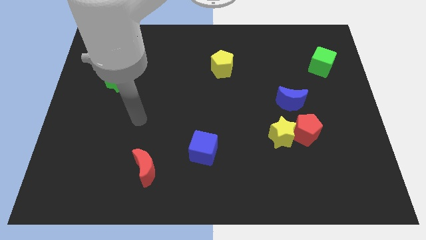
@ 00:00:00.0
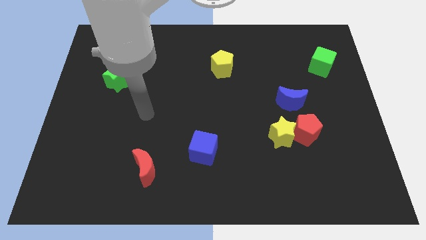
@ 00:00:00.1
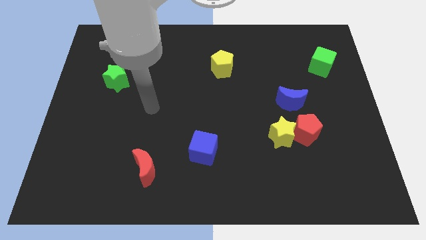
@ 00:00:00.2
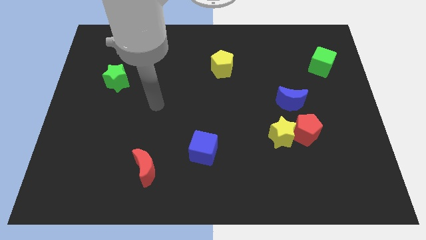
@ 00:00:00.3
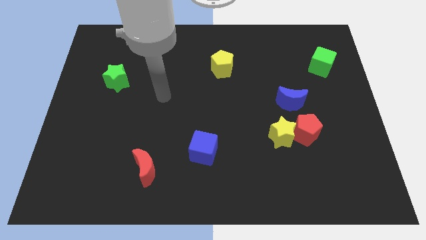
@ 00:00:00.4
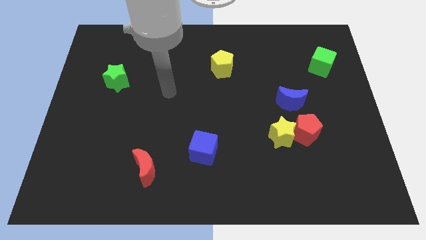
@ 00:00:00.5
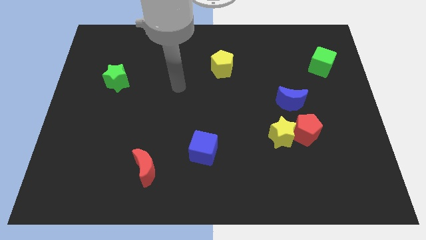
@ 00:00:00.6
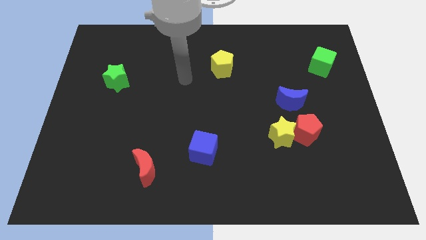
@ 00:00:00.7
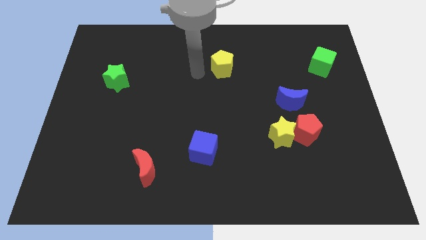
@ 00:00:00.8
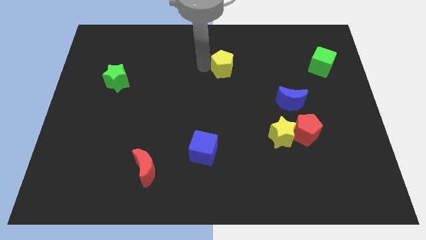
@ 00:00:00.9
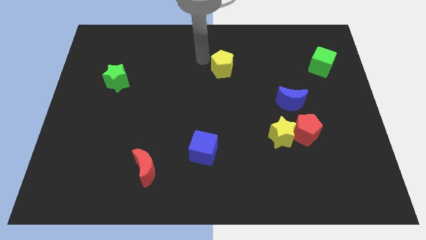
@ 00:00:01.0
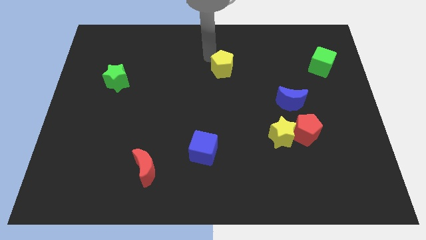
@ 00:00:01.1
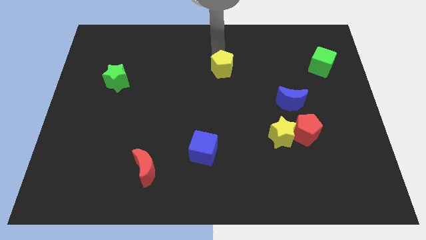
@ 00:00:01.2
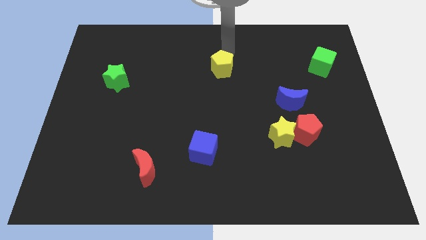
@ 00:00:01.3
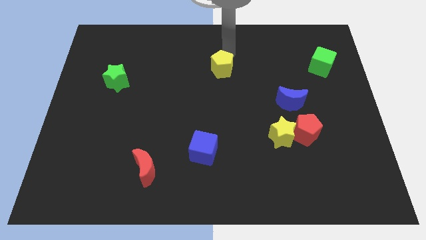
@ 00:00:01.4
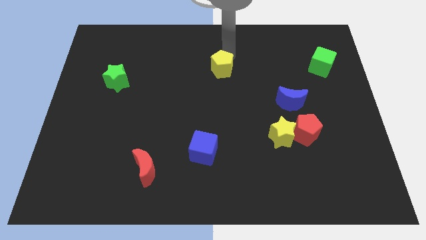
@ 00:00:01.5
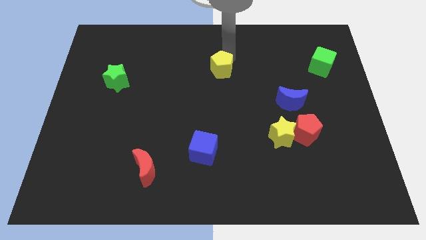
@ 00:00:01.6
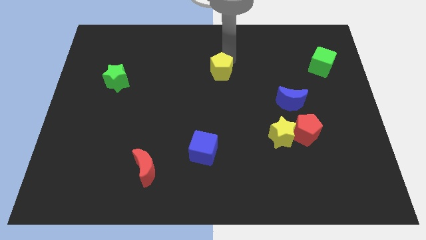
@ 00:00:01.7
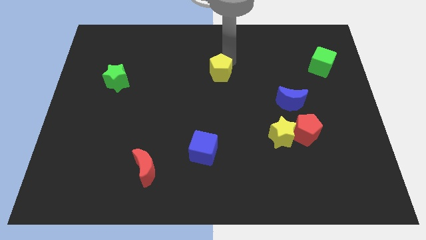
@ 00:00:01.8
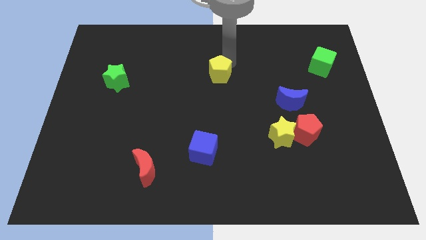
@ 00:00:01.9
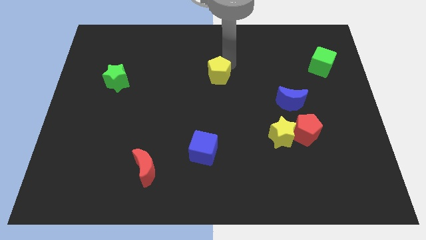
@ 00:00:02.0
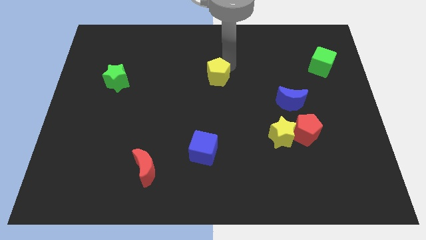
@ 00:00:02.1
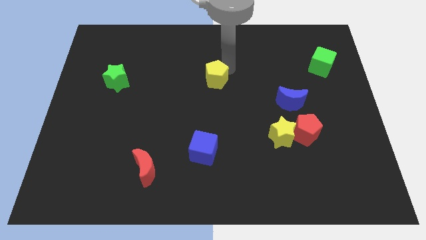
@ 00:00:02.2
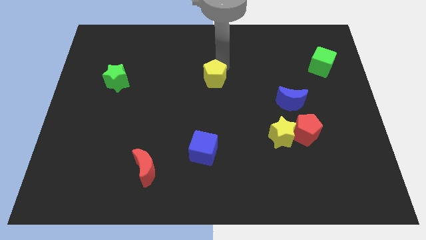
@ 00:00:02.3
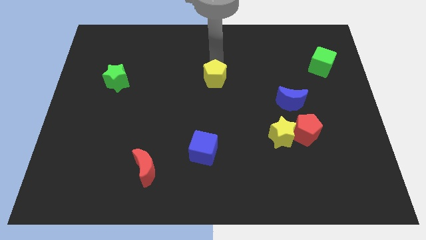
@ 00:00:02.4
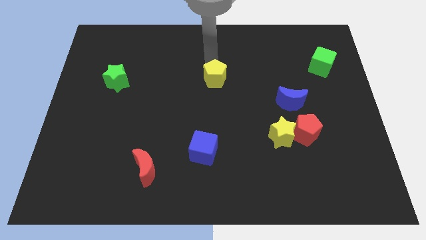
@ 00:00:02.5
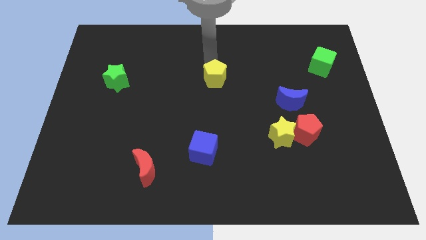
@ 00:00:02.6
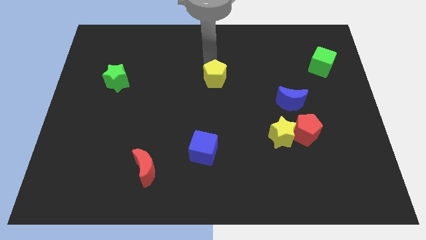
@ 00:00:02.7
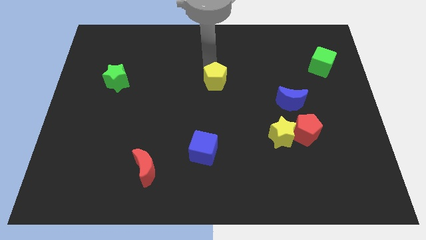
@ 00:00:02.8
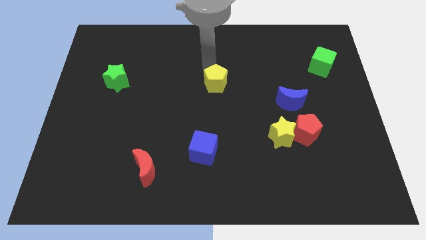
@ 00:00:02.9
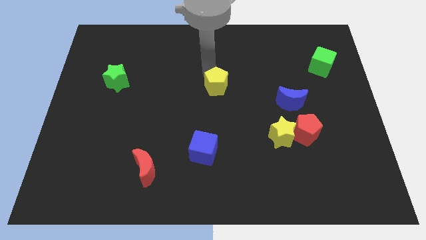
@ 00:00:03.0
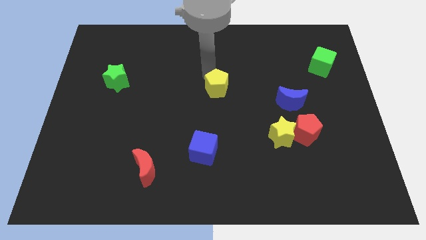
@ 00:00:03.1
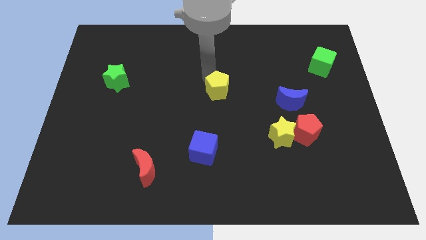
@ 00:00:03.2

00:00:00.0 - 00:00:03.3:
move the yellow pentagon downwards a little

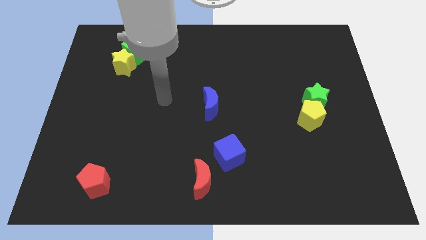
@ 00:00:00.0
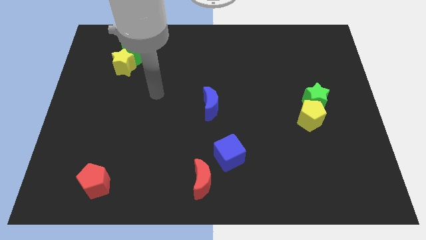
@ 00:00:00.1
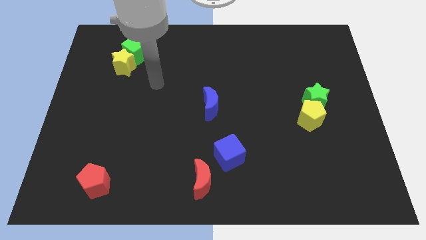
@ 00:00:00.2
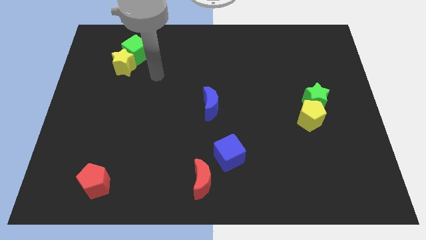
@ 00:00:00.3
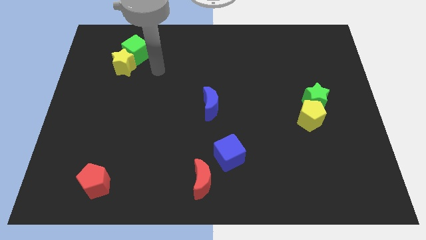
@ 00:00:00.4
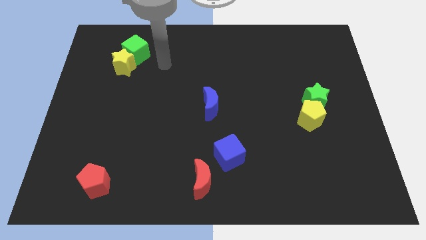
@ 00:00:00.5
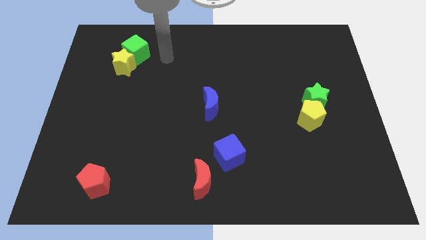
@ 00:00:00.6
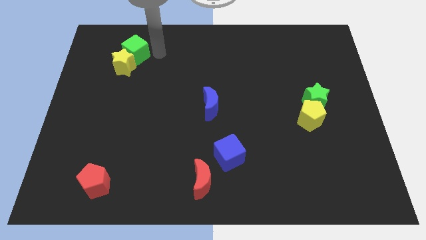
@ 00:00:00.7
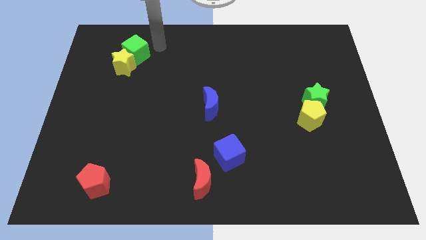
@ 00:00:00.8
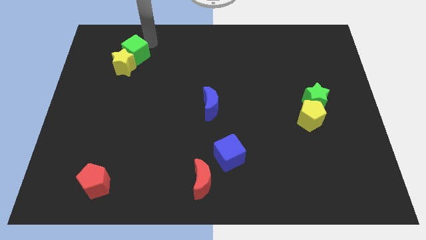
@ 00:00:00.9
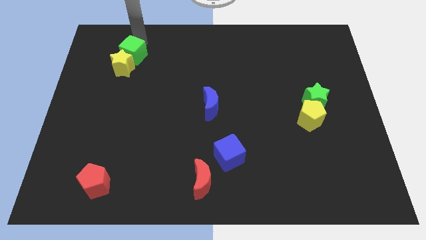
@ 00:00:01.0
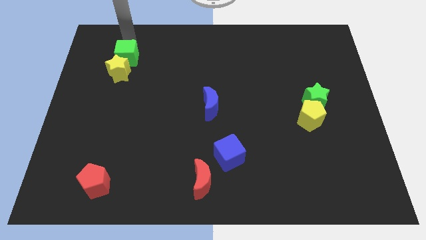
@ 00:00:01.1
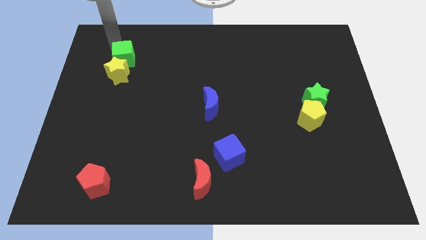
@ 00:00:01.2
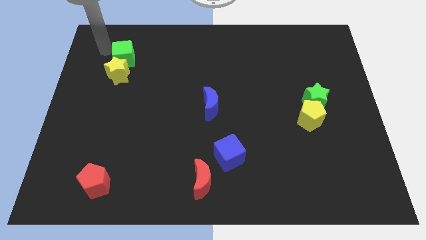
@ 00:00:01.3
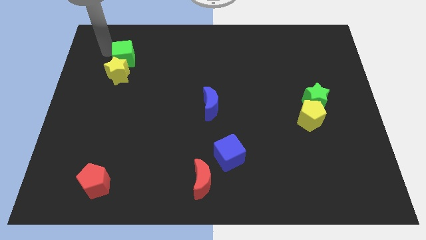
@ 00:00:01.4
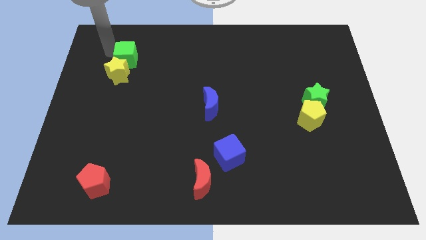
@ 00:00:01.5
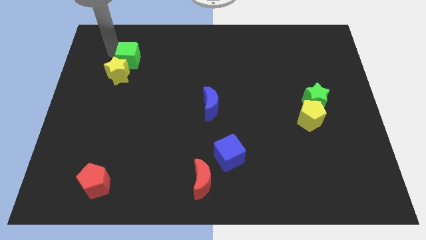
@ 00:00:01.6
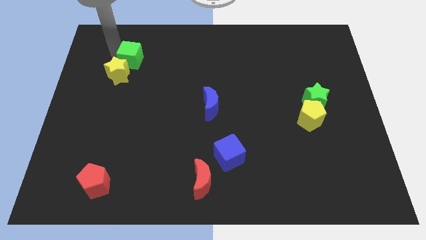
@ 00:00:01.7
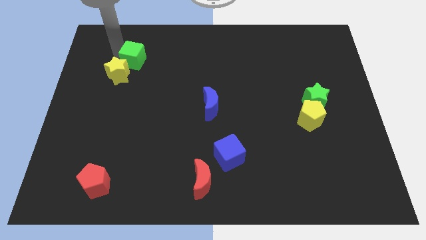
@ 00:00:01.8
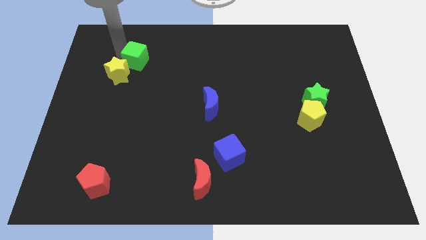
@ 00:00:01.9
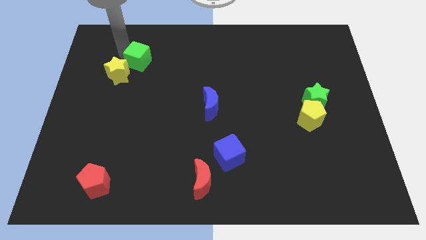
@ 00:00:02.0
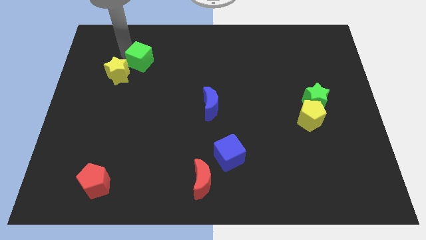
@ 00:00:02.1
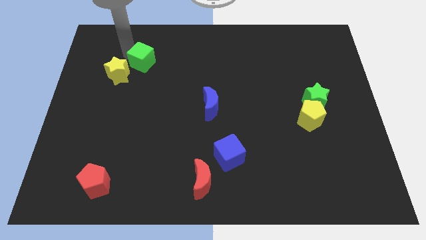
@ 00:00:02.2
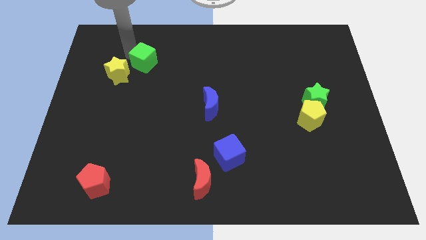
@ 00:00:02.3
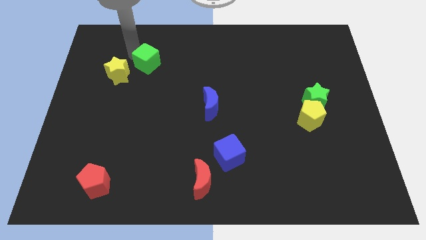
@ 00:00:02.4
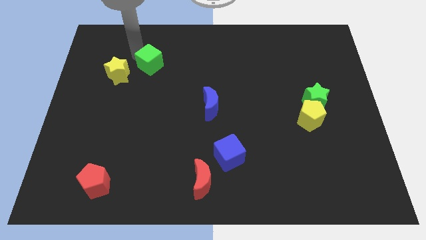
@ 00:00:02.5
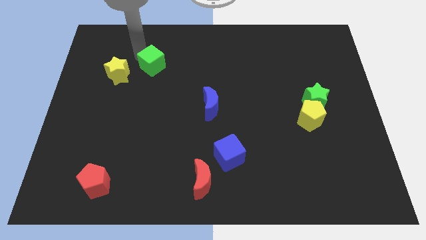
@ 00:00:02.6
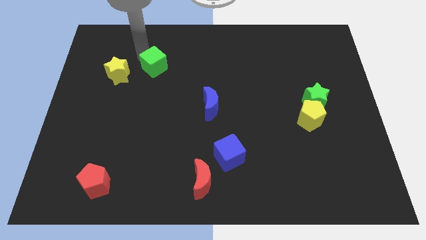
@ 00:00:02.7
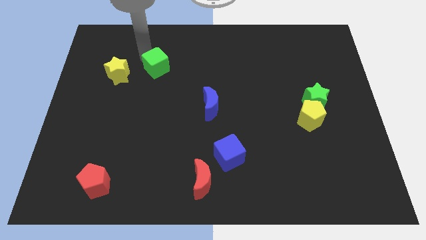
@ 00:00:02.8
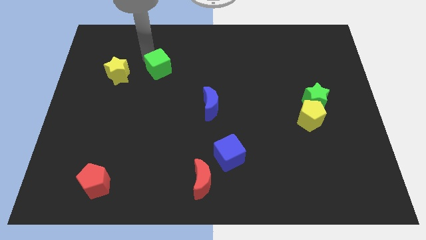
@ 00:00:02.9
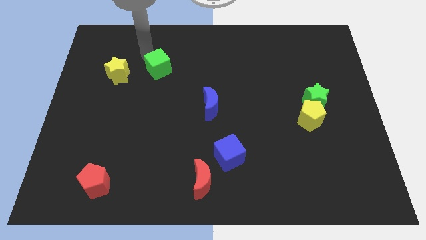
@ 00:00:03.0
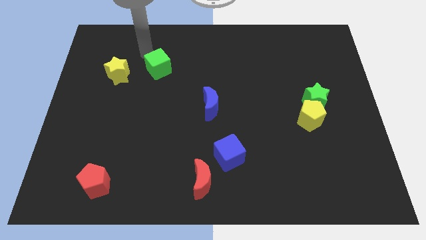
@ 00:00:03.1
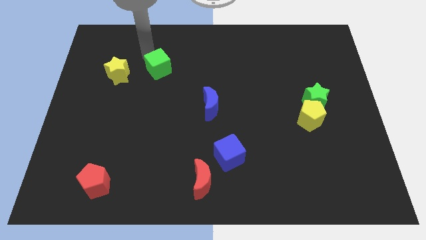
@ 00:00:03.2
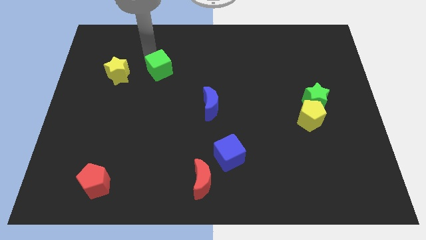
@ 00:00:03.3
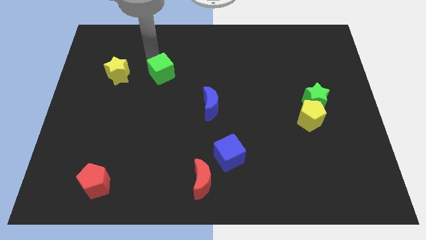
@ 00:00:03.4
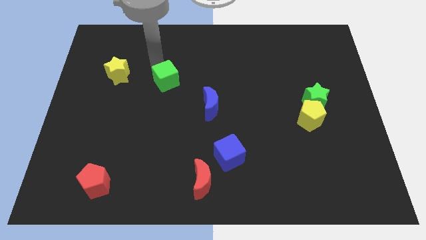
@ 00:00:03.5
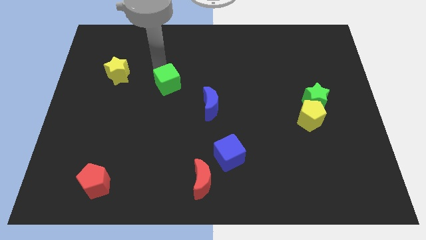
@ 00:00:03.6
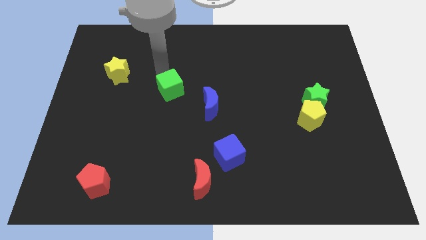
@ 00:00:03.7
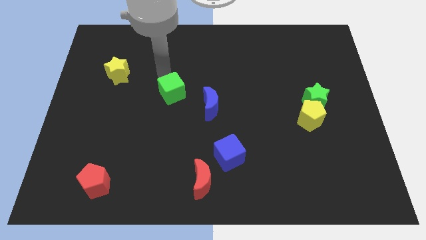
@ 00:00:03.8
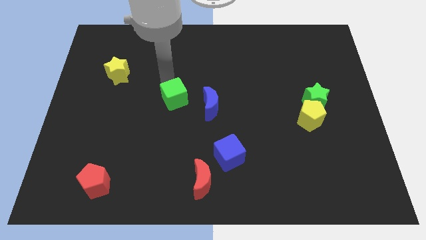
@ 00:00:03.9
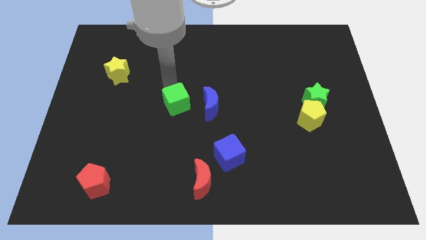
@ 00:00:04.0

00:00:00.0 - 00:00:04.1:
slide the green cube down and right diagonally

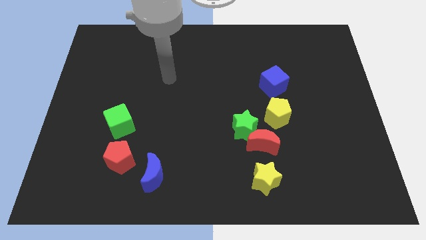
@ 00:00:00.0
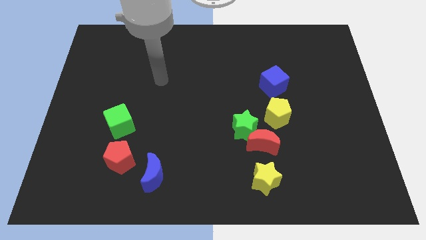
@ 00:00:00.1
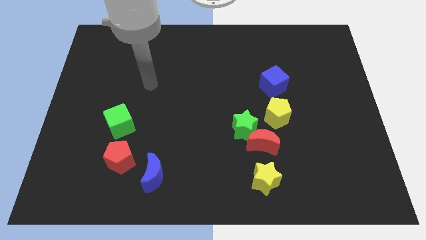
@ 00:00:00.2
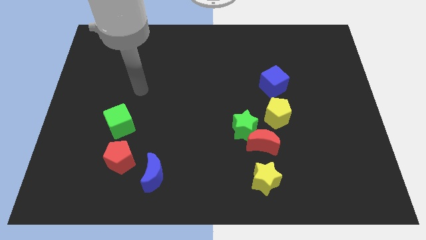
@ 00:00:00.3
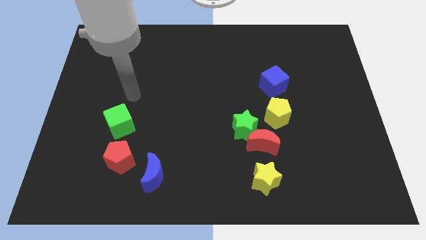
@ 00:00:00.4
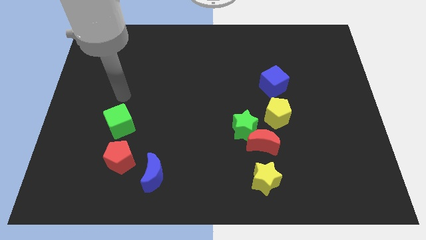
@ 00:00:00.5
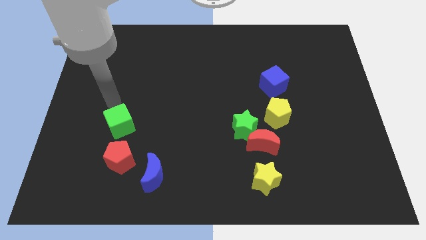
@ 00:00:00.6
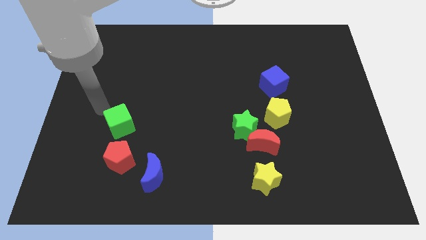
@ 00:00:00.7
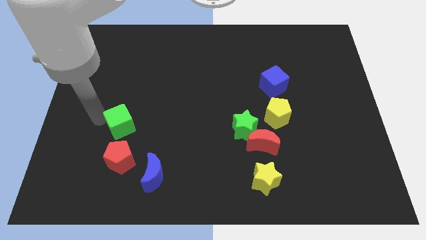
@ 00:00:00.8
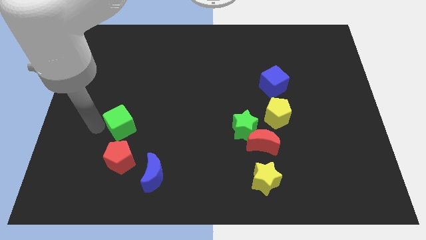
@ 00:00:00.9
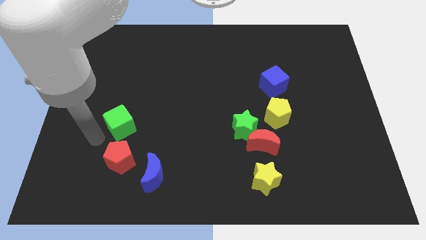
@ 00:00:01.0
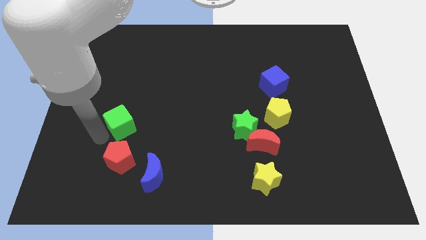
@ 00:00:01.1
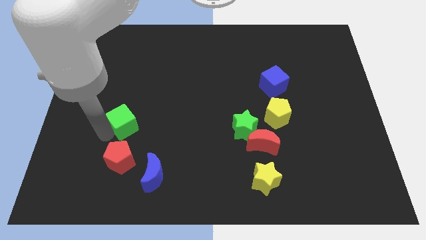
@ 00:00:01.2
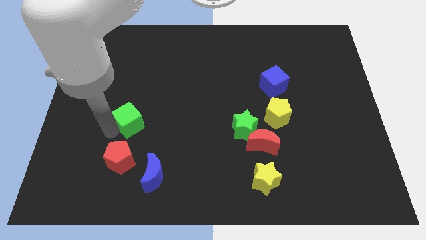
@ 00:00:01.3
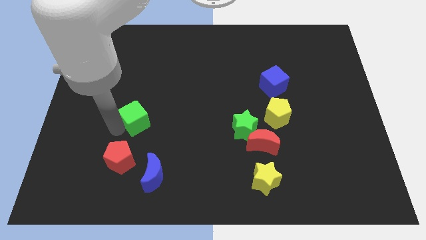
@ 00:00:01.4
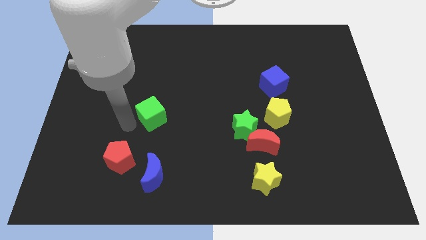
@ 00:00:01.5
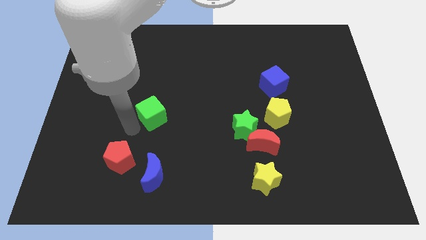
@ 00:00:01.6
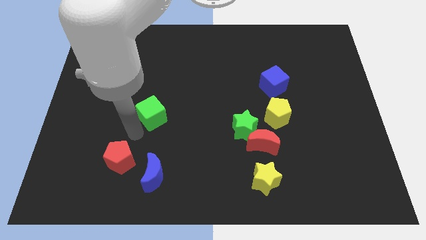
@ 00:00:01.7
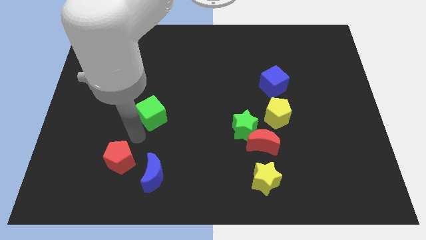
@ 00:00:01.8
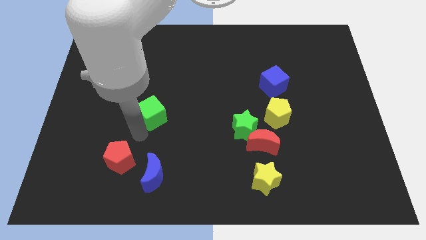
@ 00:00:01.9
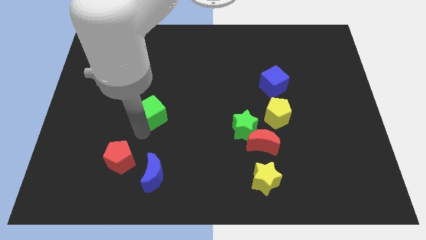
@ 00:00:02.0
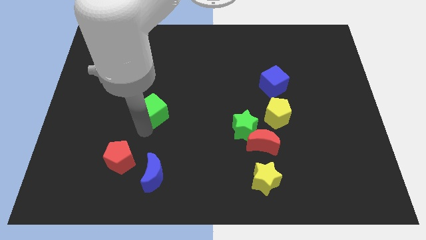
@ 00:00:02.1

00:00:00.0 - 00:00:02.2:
slide the green cube up and to the right slightly
